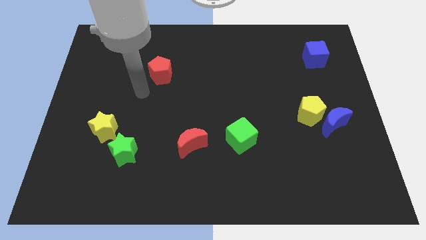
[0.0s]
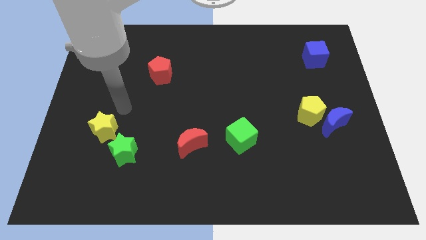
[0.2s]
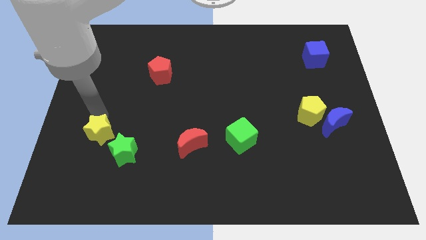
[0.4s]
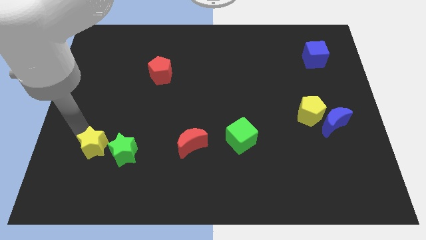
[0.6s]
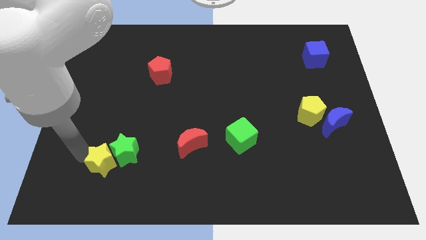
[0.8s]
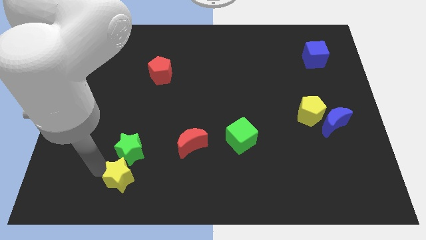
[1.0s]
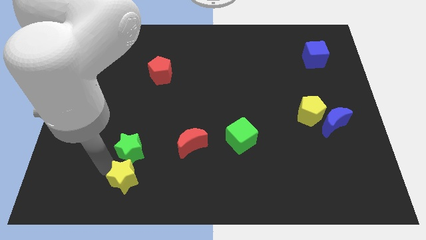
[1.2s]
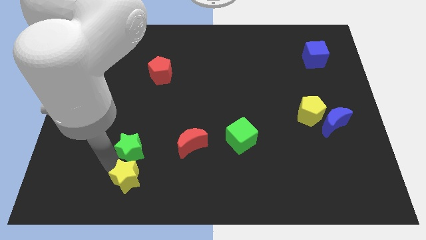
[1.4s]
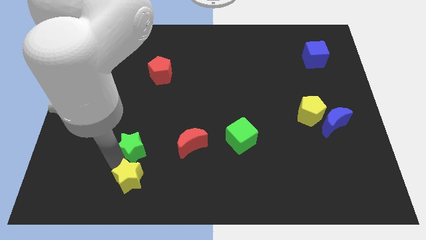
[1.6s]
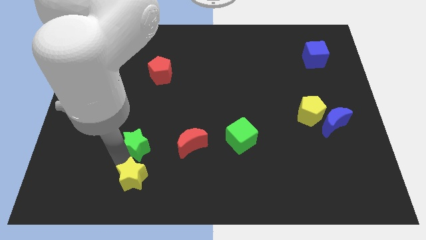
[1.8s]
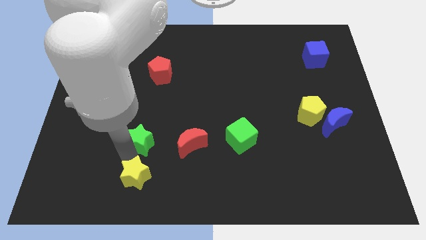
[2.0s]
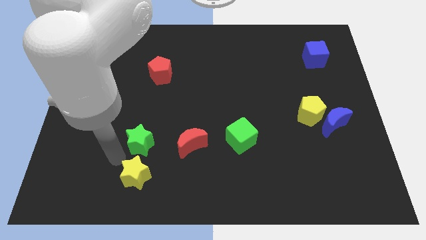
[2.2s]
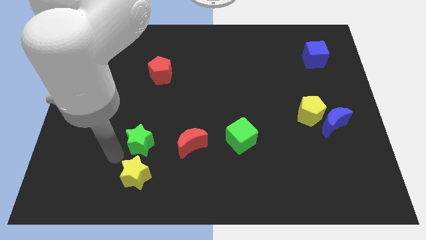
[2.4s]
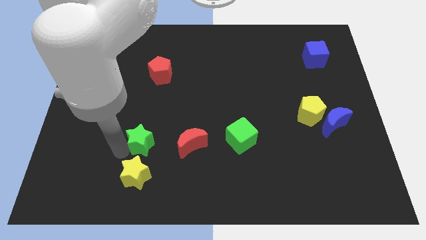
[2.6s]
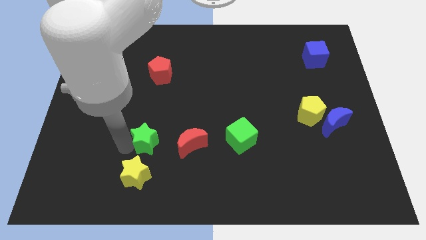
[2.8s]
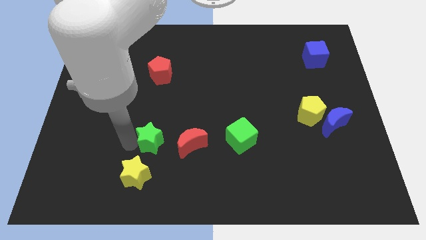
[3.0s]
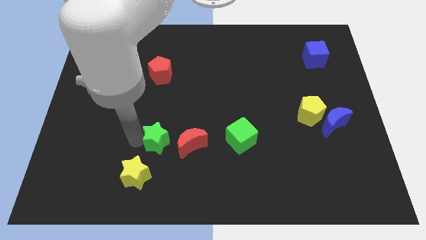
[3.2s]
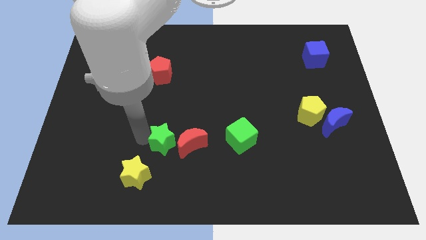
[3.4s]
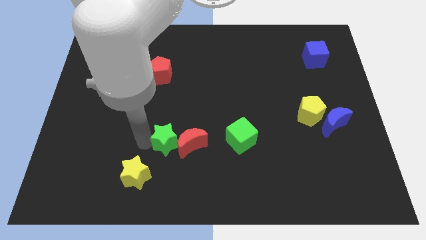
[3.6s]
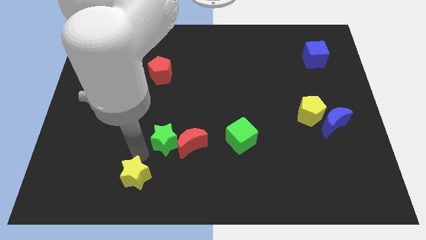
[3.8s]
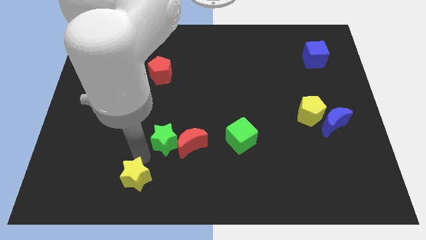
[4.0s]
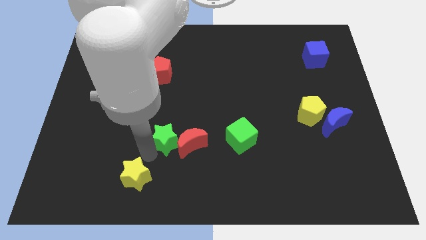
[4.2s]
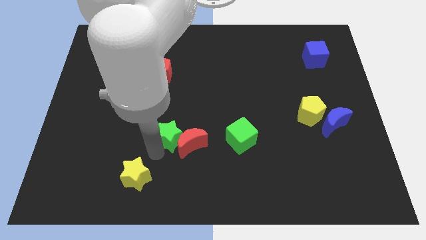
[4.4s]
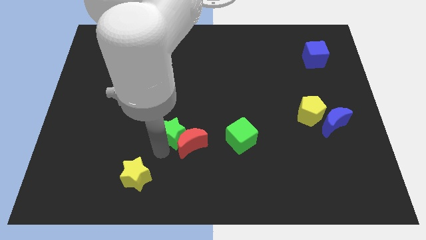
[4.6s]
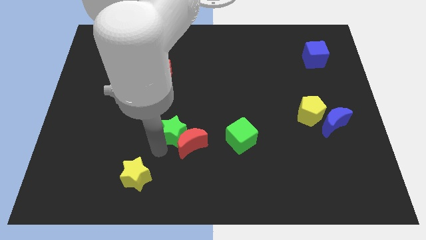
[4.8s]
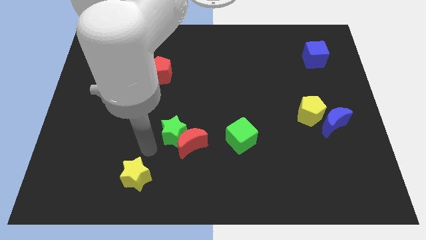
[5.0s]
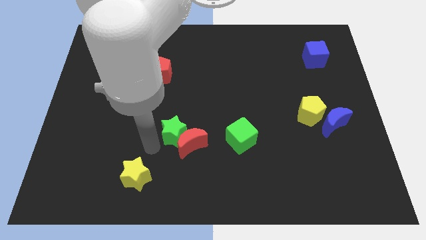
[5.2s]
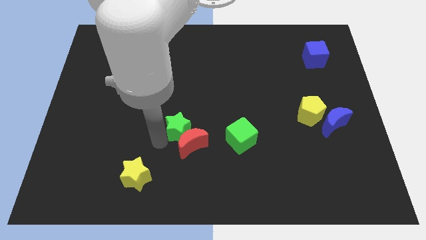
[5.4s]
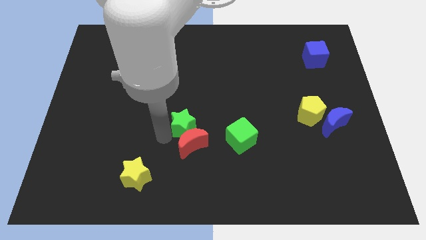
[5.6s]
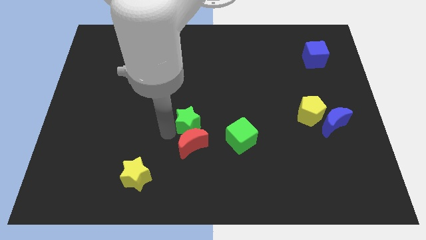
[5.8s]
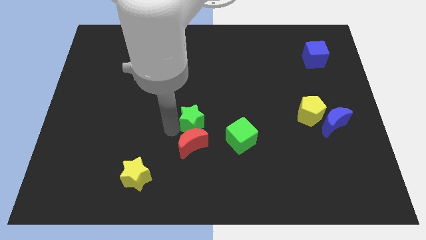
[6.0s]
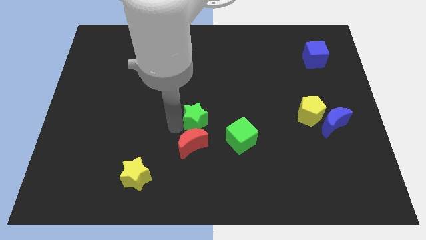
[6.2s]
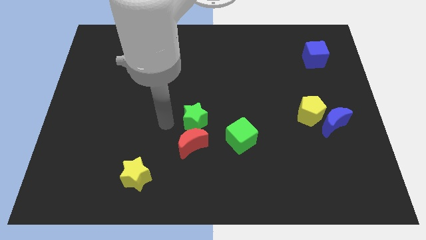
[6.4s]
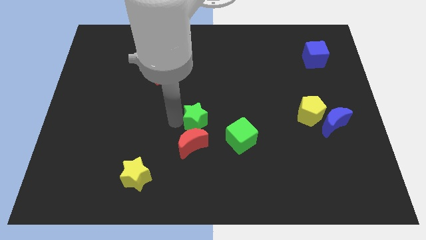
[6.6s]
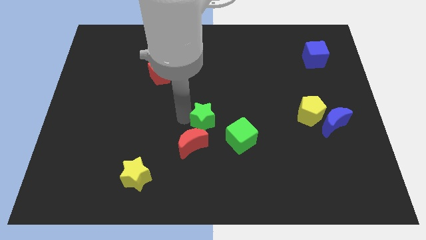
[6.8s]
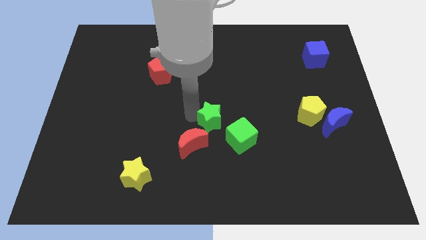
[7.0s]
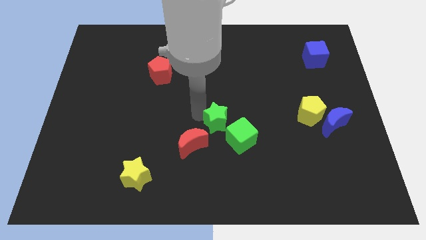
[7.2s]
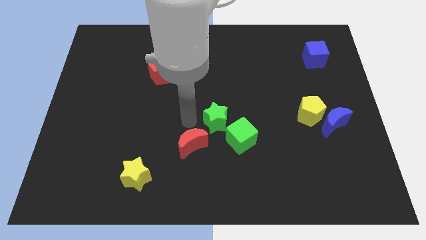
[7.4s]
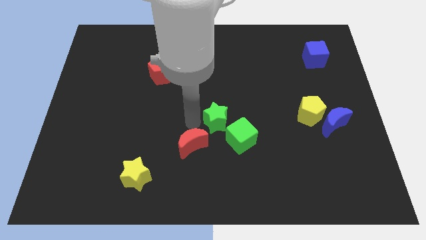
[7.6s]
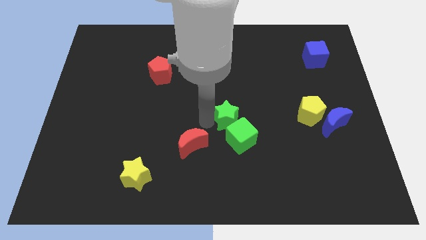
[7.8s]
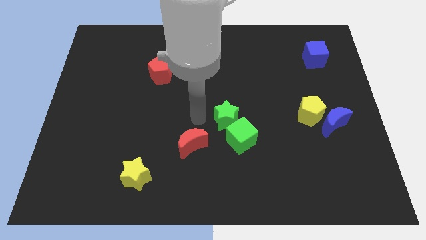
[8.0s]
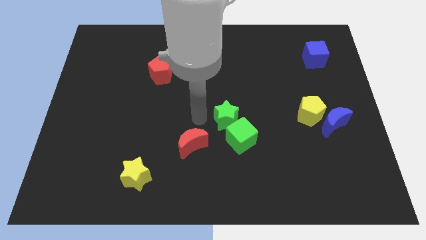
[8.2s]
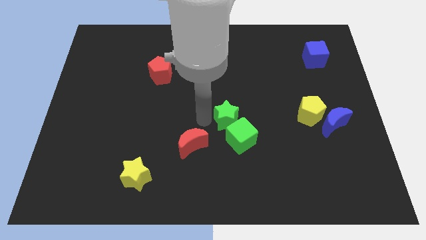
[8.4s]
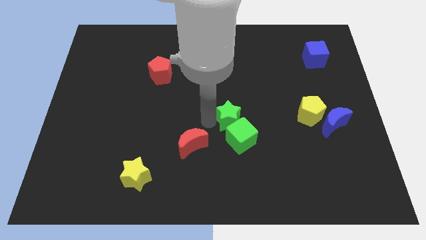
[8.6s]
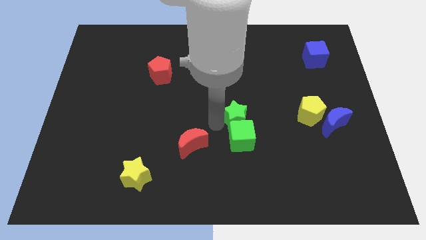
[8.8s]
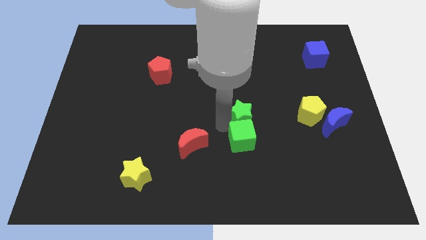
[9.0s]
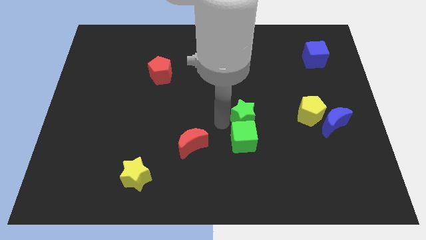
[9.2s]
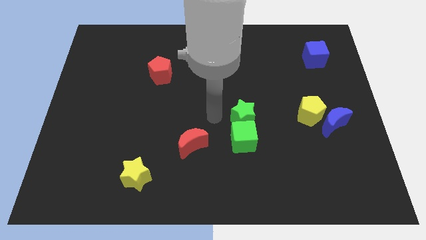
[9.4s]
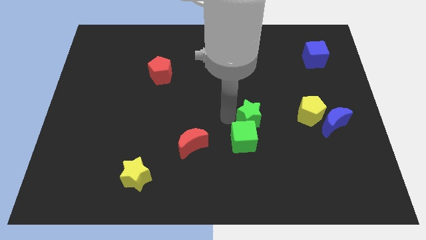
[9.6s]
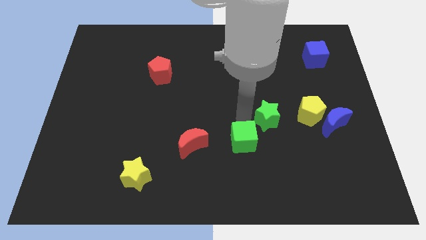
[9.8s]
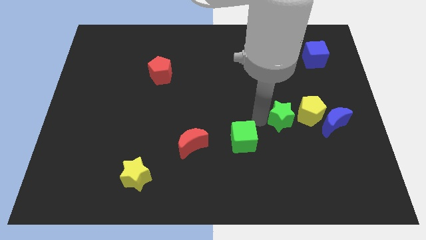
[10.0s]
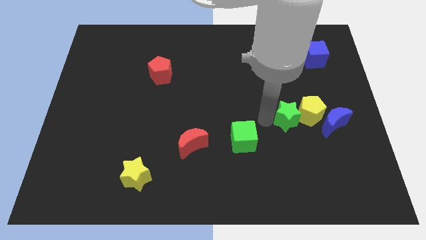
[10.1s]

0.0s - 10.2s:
slide the green star towards the yellow pentagon

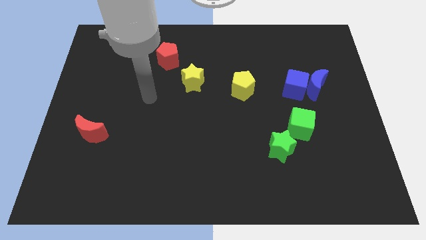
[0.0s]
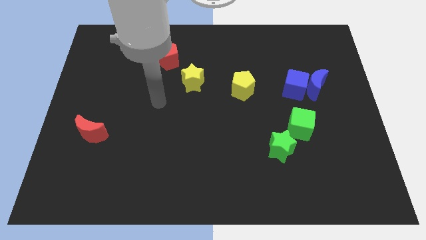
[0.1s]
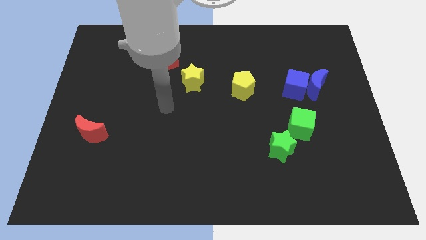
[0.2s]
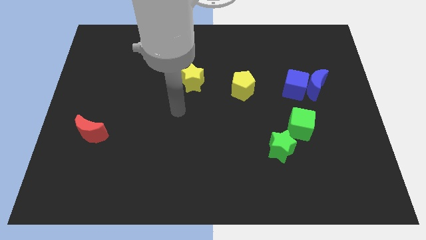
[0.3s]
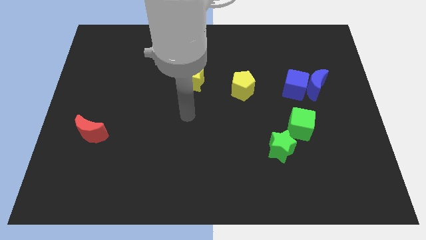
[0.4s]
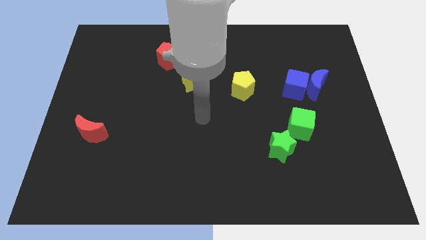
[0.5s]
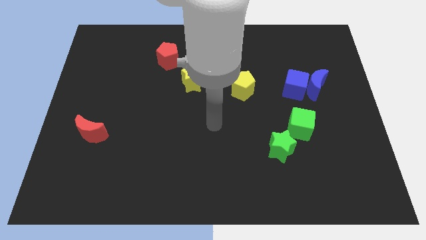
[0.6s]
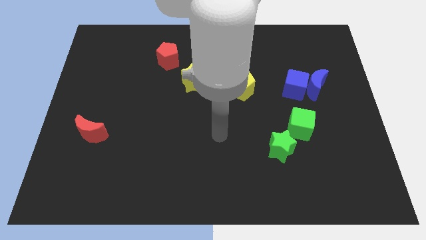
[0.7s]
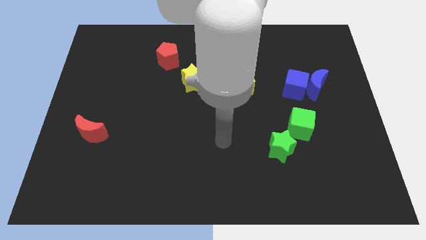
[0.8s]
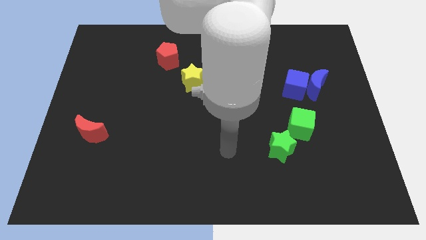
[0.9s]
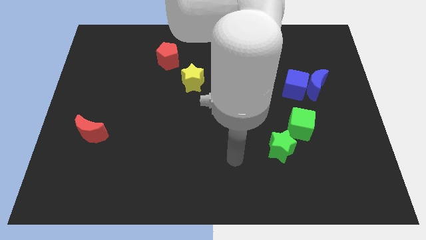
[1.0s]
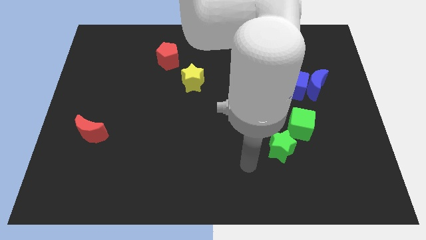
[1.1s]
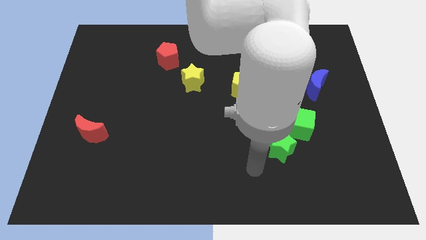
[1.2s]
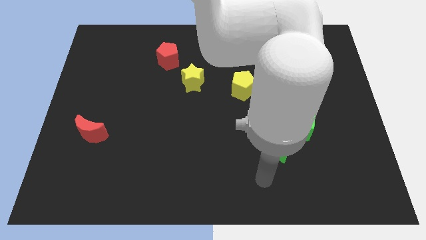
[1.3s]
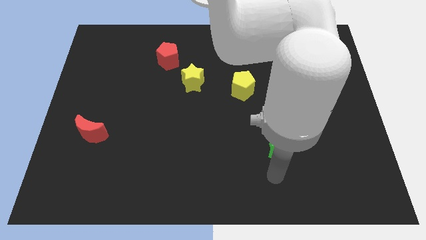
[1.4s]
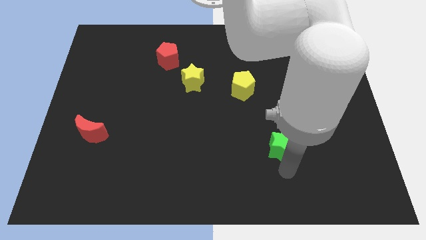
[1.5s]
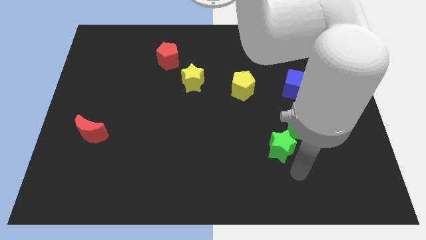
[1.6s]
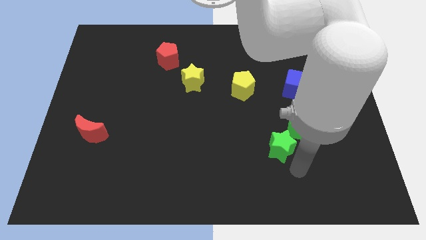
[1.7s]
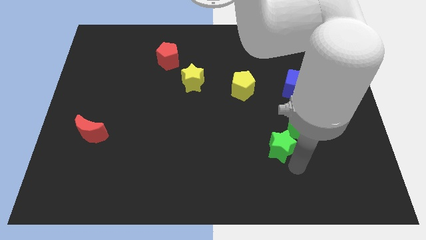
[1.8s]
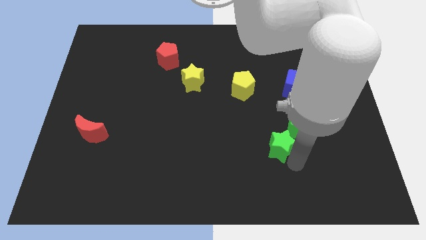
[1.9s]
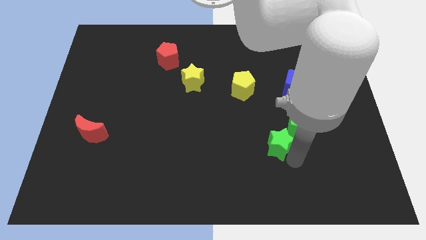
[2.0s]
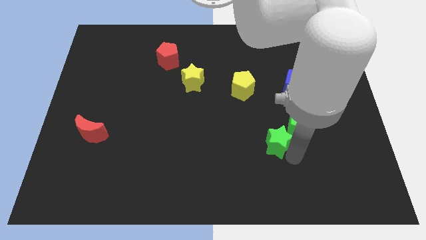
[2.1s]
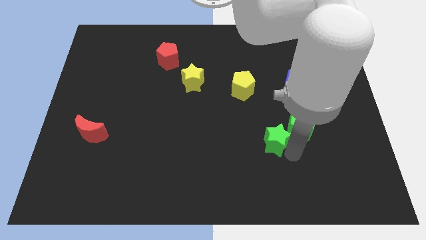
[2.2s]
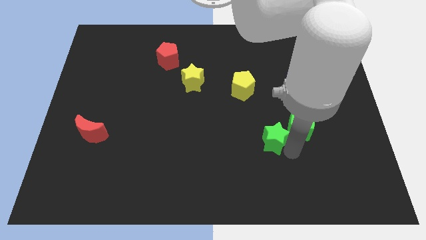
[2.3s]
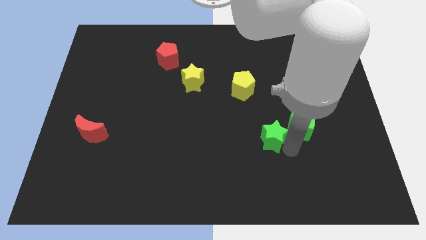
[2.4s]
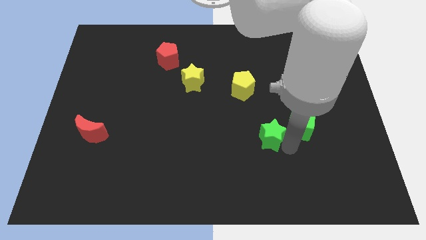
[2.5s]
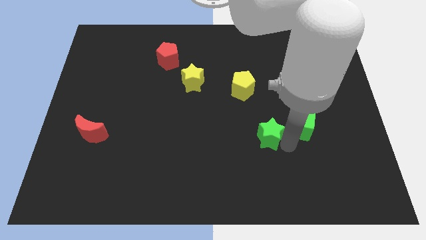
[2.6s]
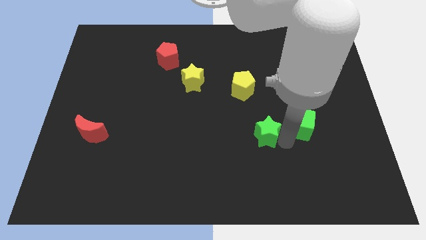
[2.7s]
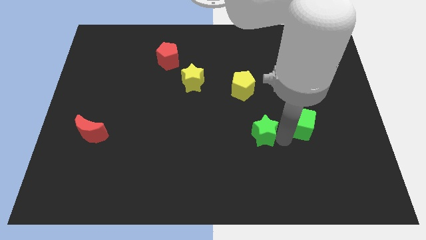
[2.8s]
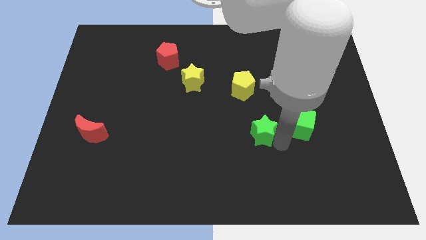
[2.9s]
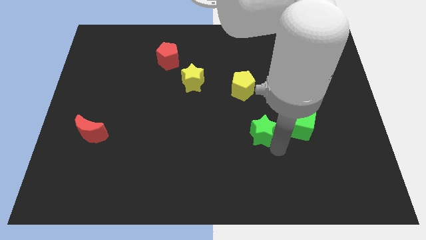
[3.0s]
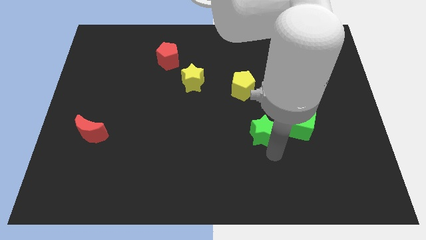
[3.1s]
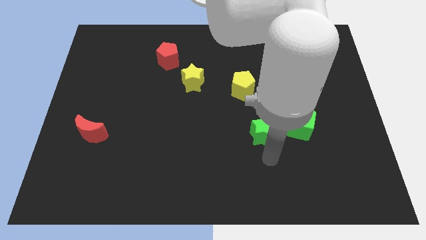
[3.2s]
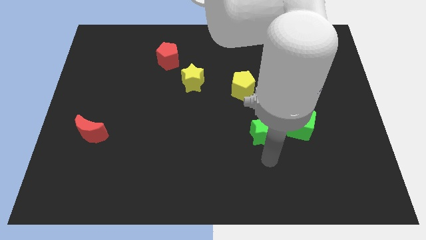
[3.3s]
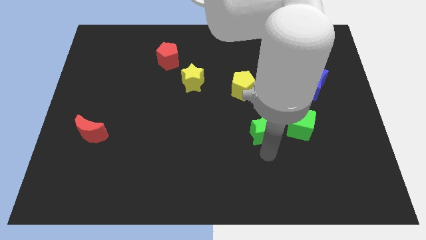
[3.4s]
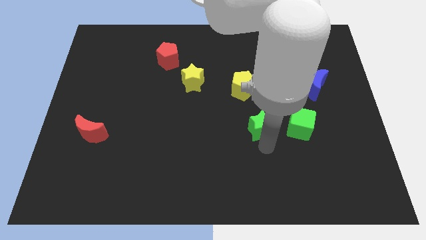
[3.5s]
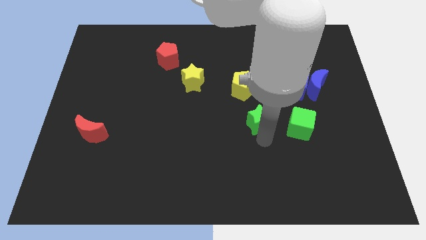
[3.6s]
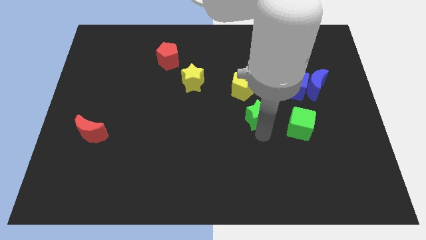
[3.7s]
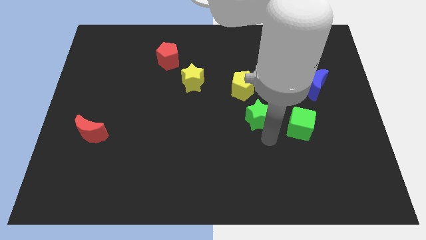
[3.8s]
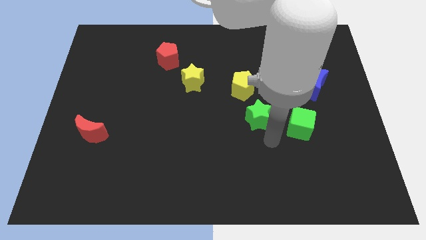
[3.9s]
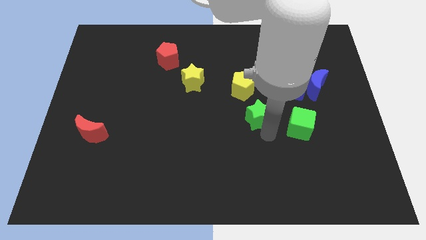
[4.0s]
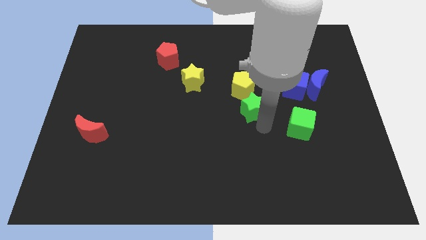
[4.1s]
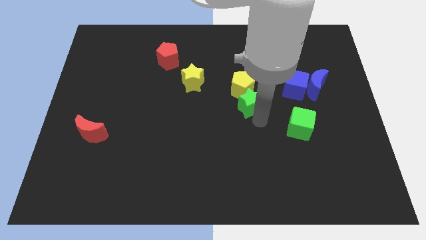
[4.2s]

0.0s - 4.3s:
put the green star close to the yellow pentagon
